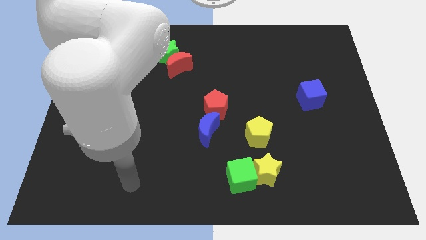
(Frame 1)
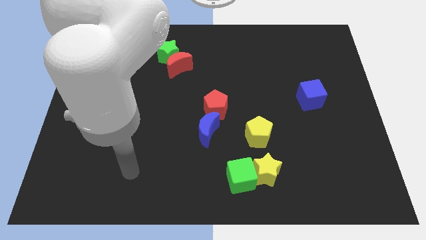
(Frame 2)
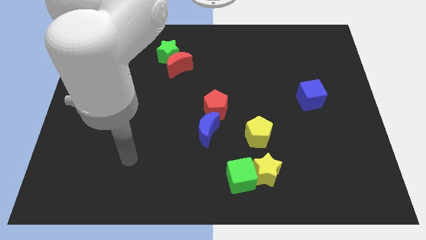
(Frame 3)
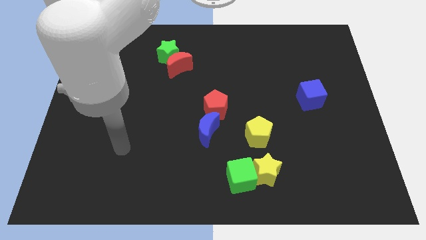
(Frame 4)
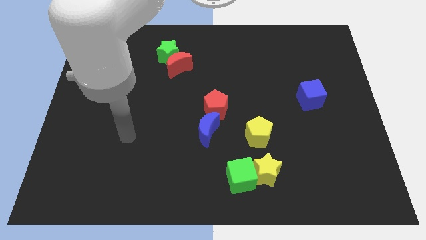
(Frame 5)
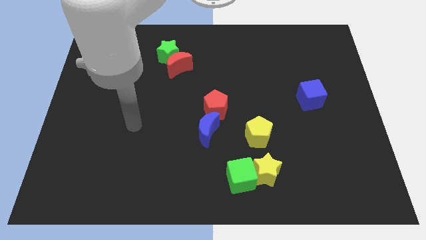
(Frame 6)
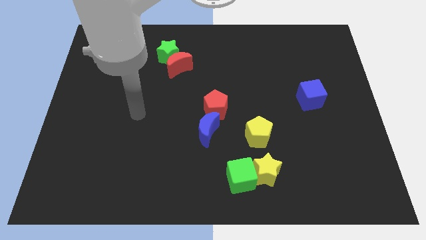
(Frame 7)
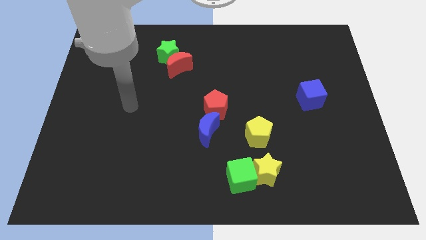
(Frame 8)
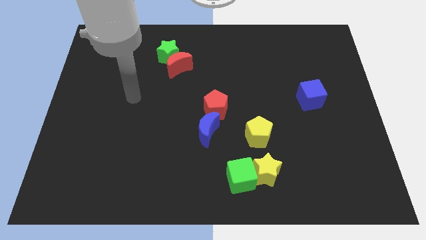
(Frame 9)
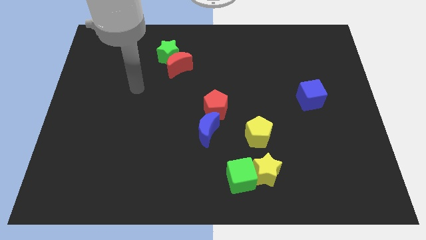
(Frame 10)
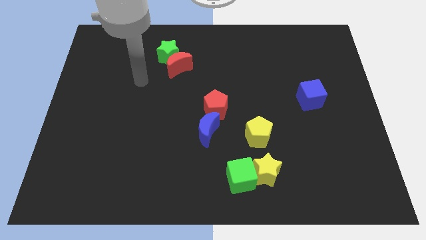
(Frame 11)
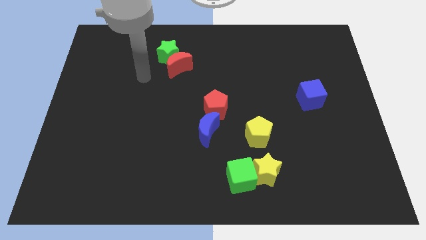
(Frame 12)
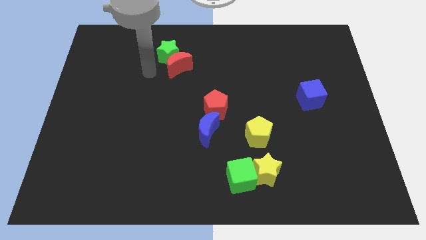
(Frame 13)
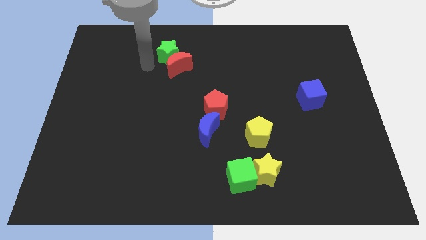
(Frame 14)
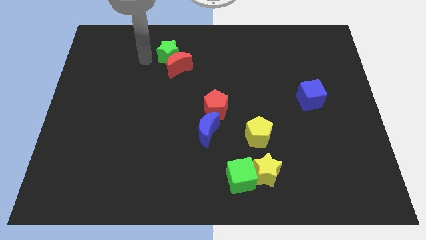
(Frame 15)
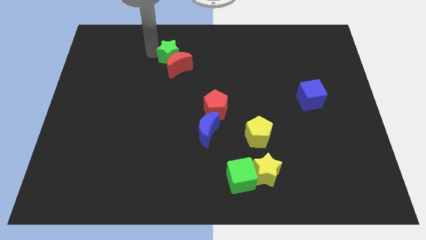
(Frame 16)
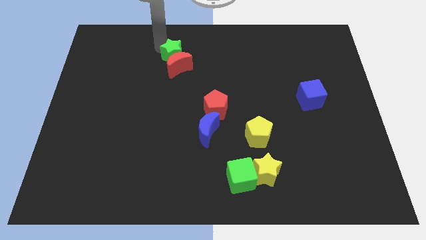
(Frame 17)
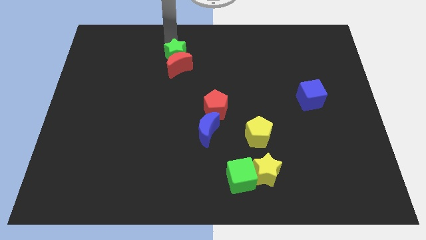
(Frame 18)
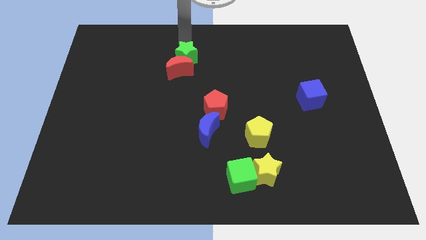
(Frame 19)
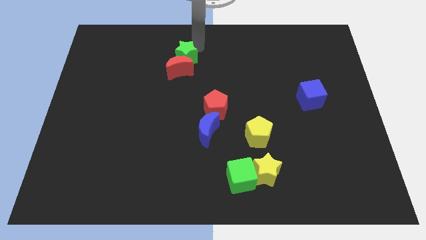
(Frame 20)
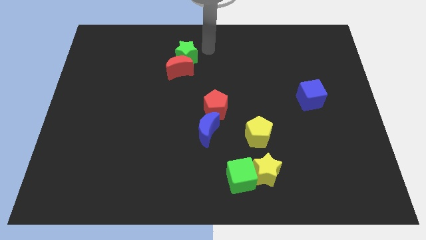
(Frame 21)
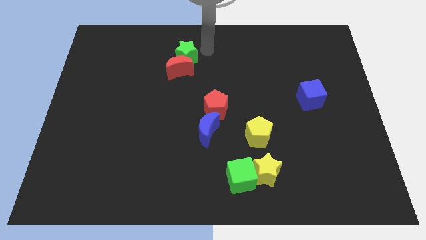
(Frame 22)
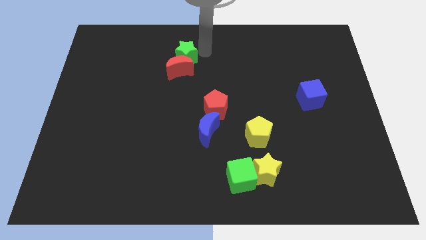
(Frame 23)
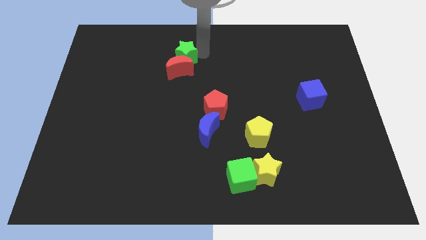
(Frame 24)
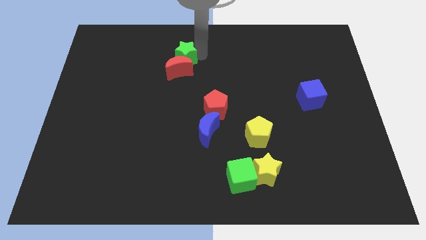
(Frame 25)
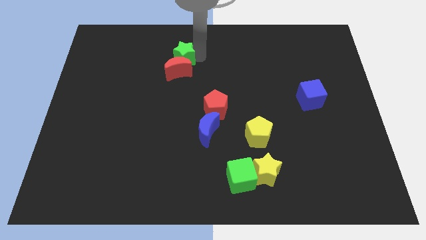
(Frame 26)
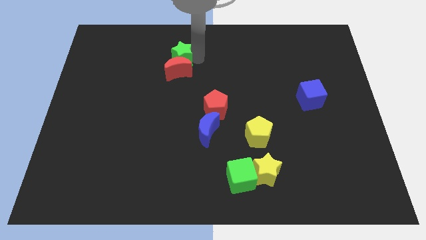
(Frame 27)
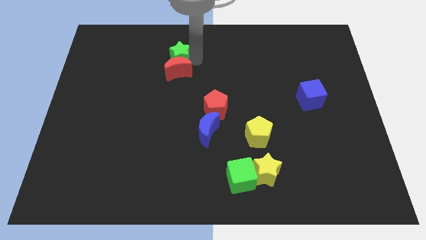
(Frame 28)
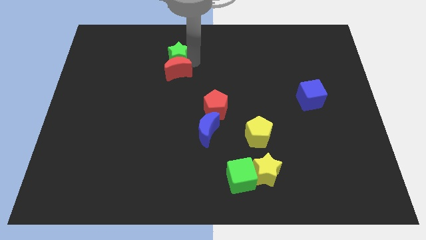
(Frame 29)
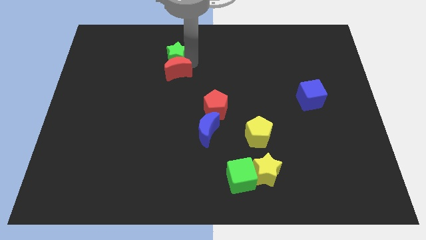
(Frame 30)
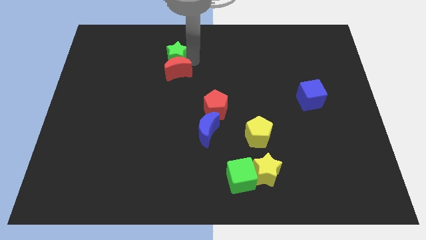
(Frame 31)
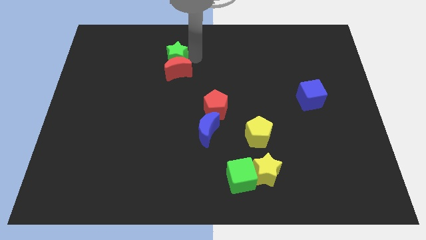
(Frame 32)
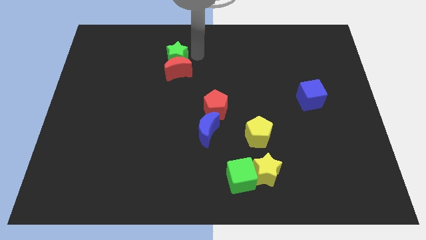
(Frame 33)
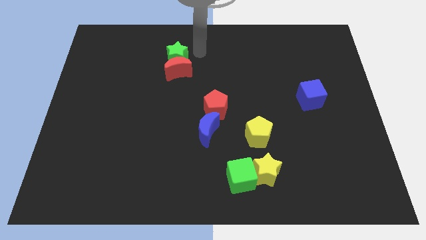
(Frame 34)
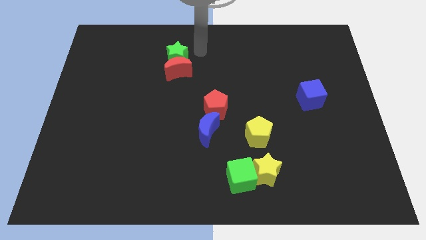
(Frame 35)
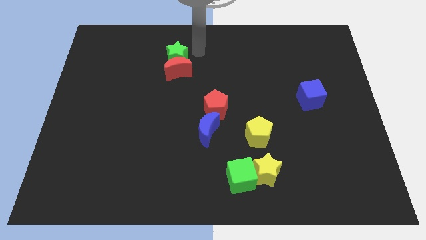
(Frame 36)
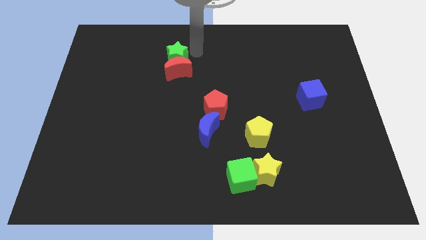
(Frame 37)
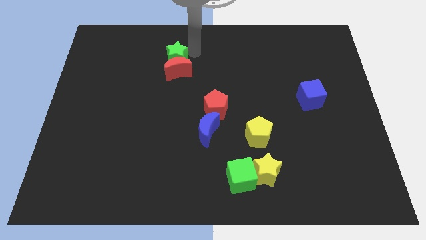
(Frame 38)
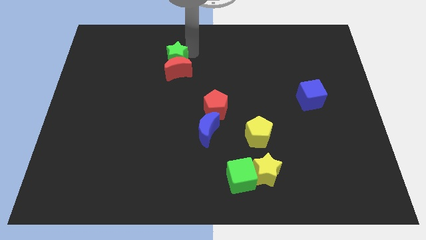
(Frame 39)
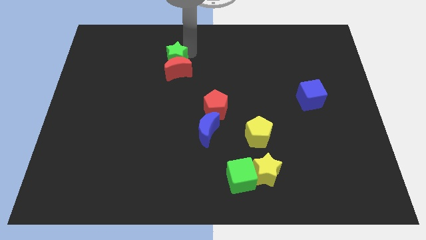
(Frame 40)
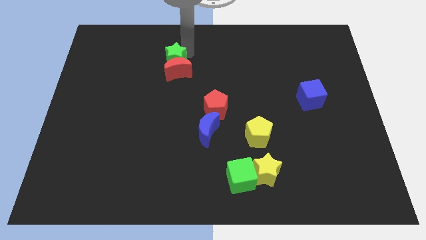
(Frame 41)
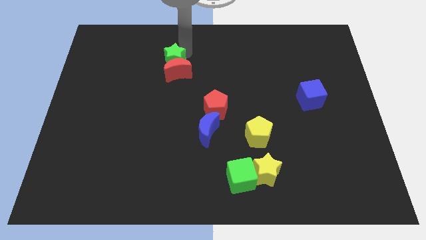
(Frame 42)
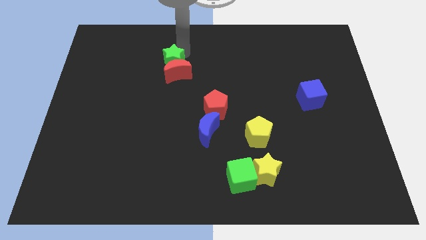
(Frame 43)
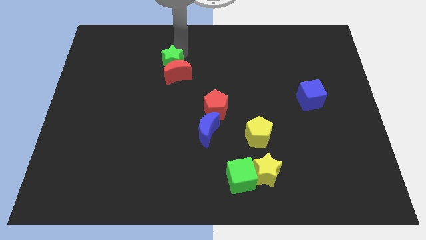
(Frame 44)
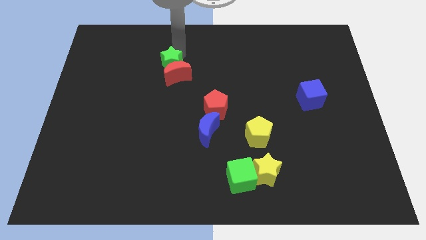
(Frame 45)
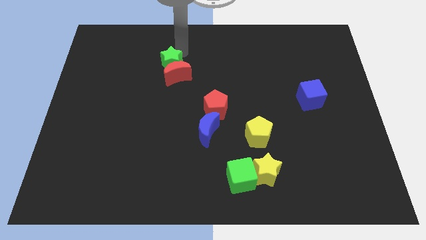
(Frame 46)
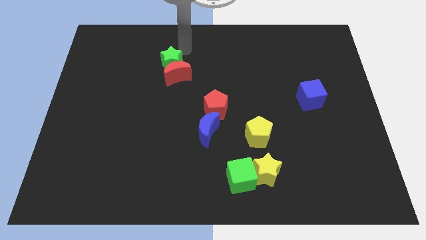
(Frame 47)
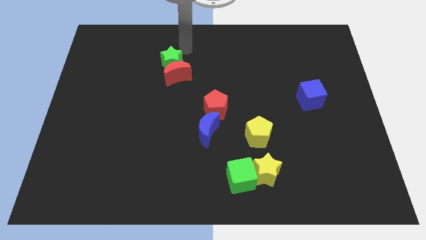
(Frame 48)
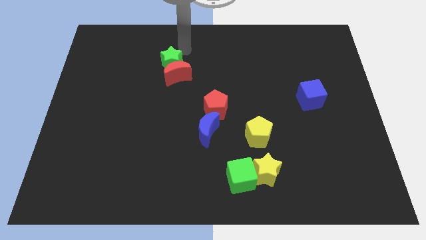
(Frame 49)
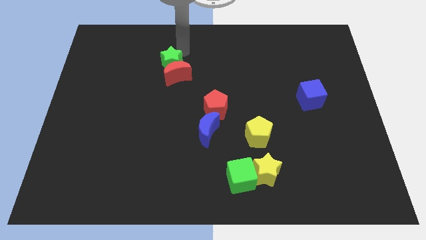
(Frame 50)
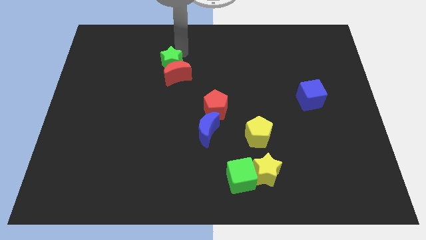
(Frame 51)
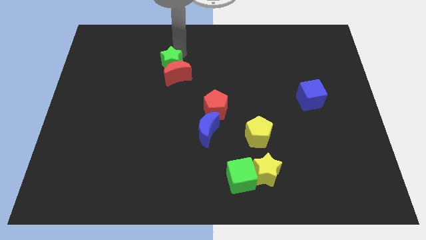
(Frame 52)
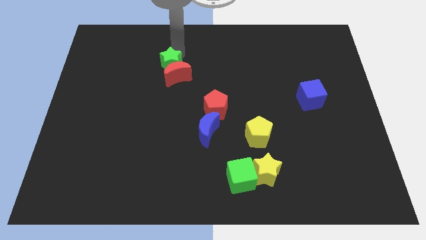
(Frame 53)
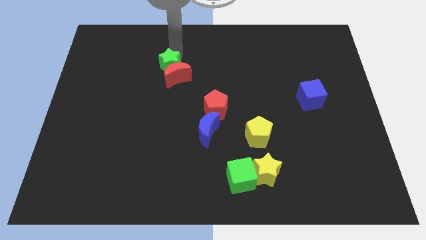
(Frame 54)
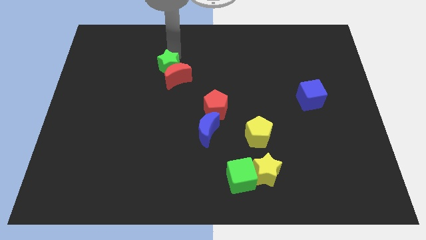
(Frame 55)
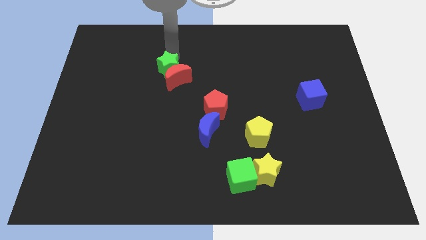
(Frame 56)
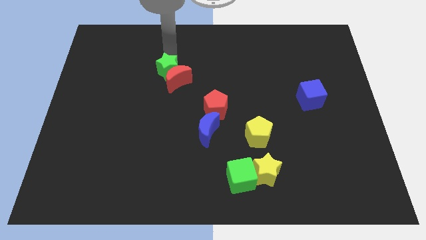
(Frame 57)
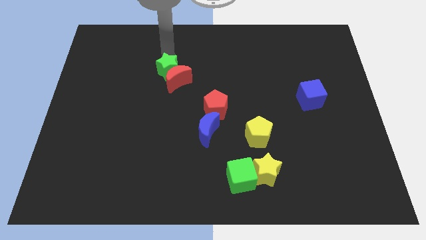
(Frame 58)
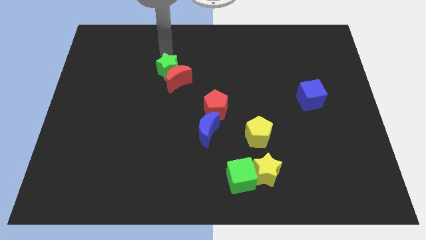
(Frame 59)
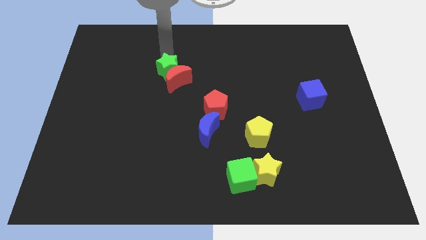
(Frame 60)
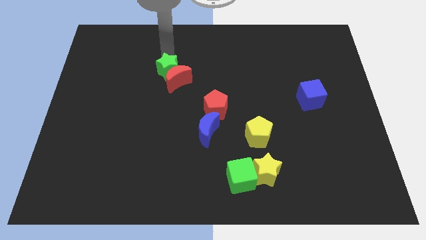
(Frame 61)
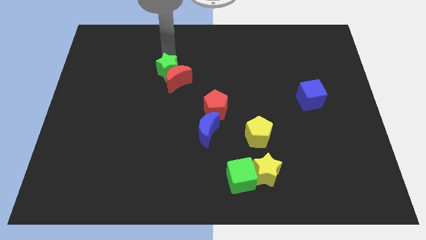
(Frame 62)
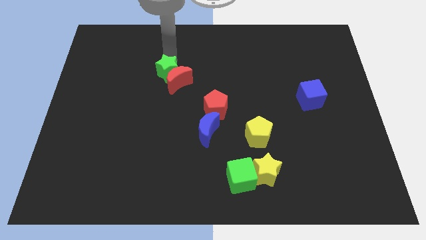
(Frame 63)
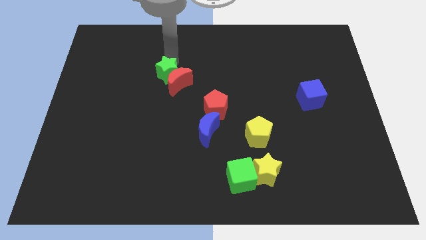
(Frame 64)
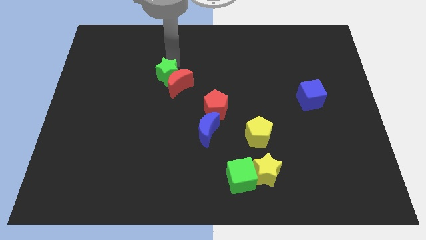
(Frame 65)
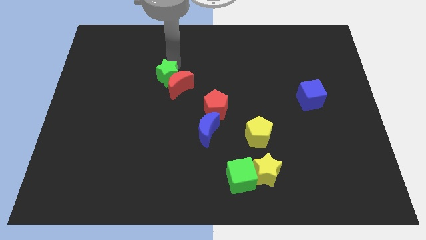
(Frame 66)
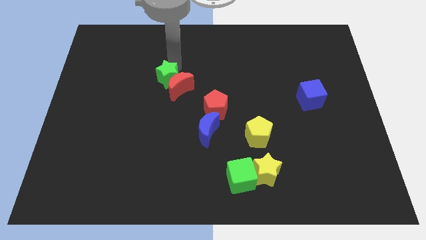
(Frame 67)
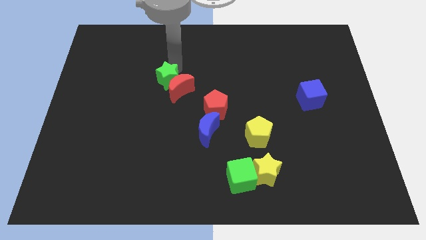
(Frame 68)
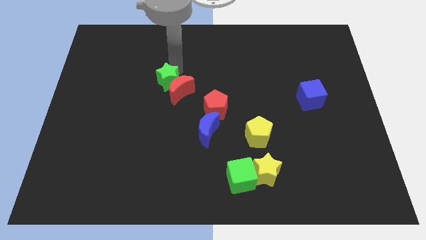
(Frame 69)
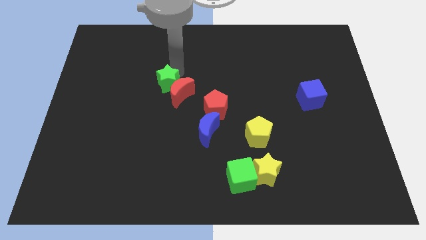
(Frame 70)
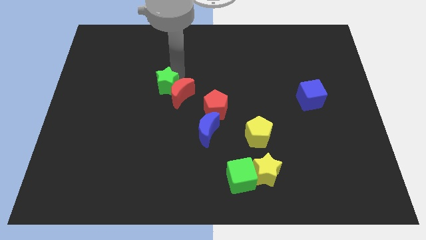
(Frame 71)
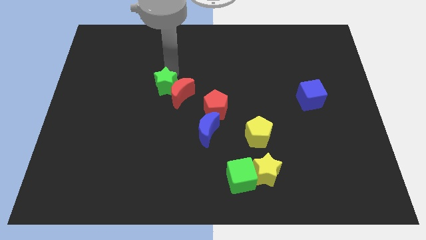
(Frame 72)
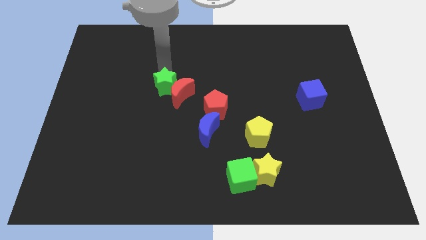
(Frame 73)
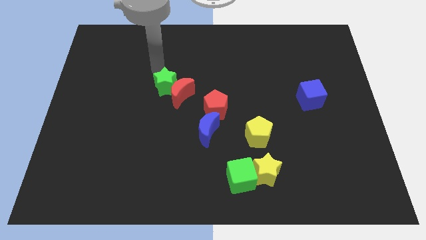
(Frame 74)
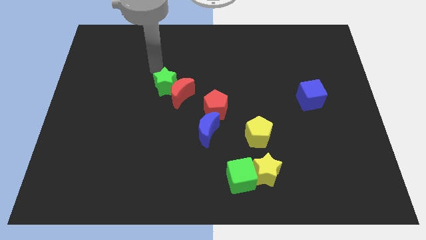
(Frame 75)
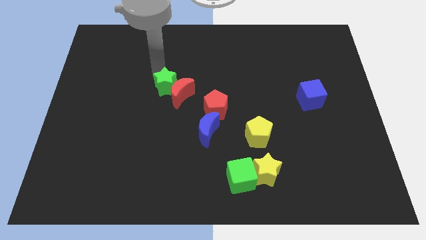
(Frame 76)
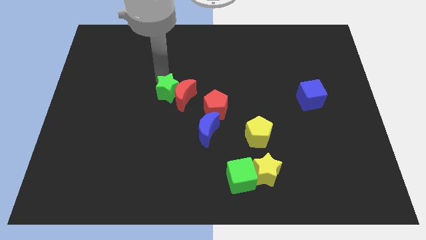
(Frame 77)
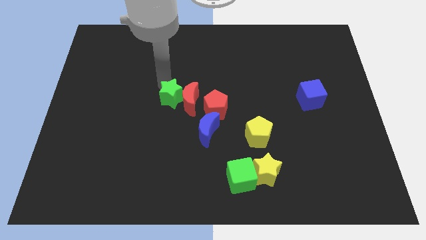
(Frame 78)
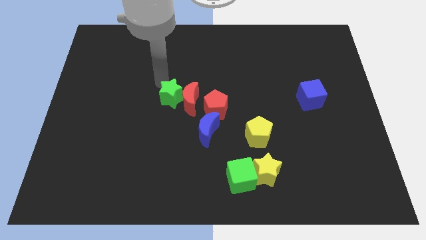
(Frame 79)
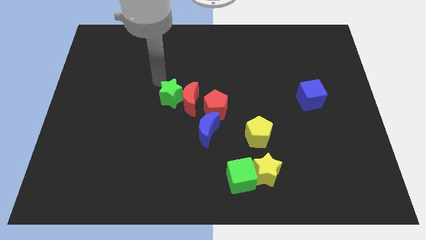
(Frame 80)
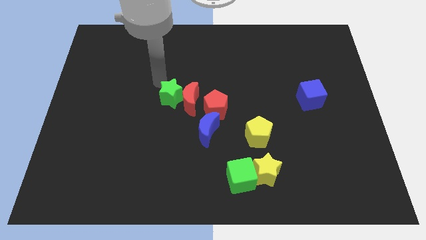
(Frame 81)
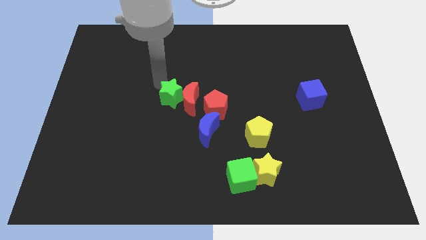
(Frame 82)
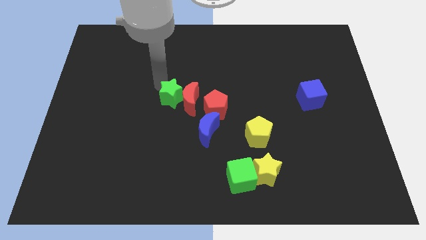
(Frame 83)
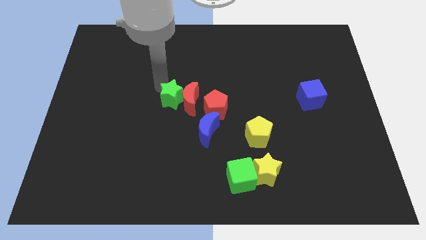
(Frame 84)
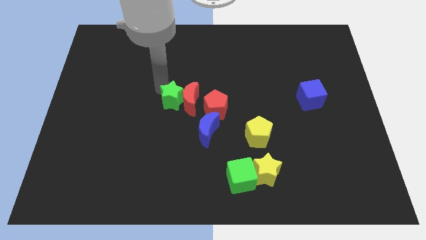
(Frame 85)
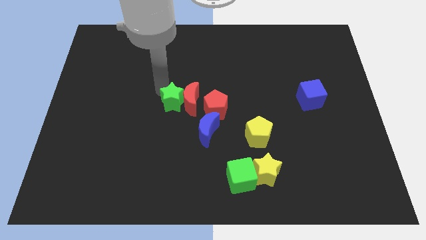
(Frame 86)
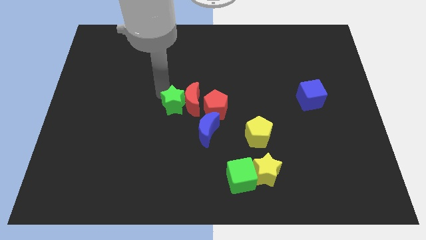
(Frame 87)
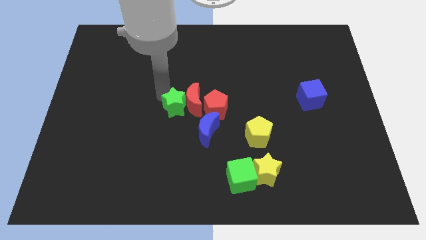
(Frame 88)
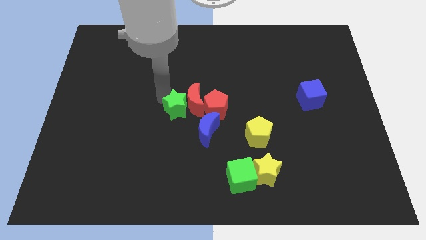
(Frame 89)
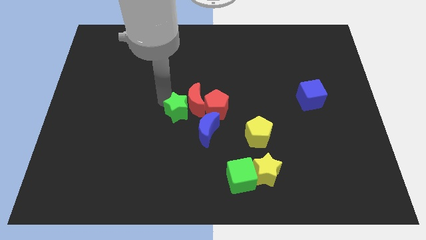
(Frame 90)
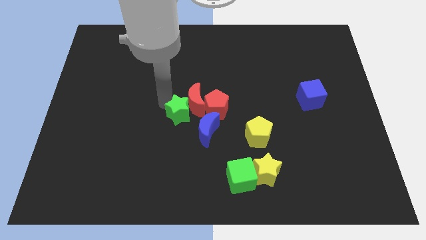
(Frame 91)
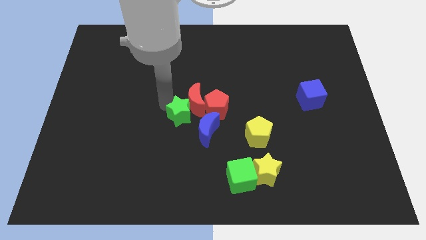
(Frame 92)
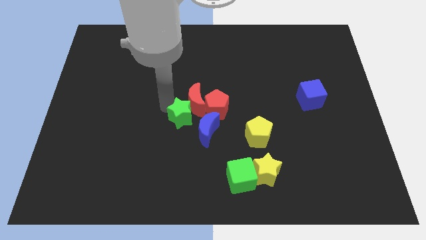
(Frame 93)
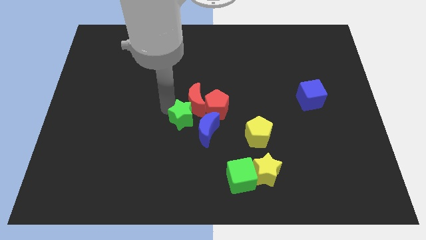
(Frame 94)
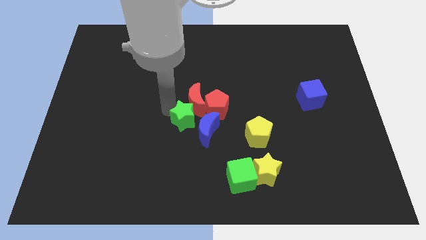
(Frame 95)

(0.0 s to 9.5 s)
put the green star towards the blue moon
